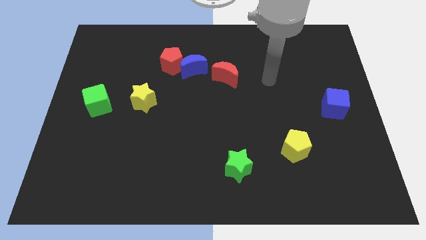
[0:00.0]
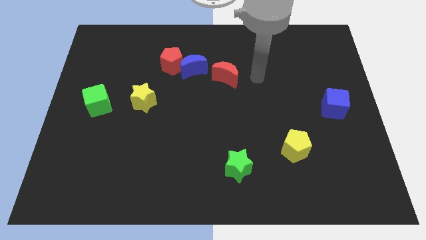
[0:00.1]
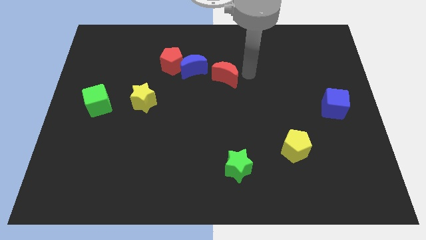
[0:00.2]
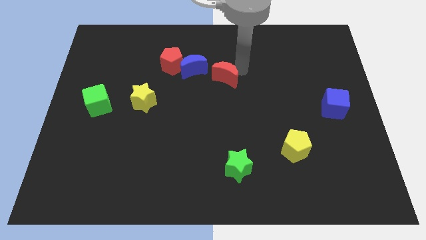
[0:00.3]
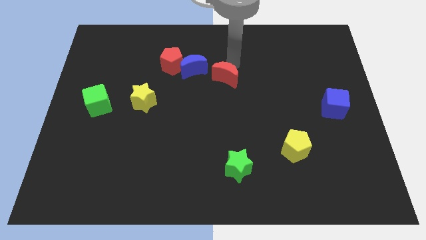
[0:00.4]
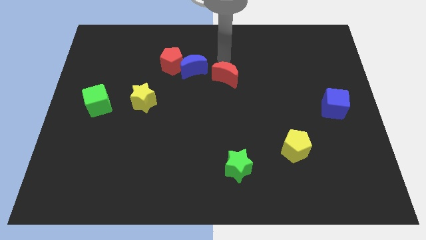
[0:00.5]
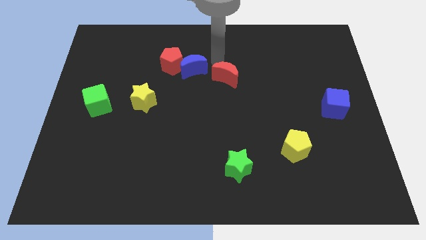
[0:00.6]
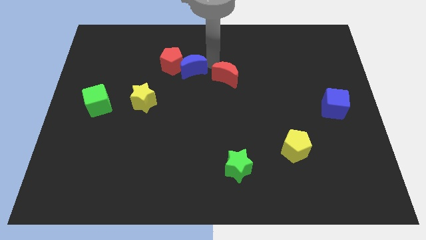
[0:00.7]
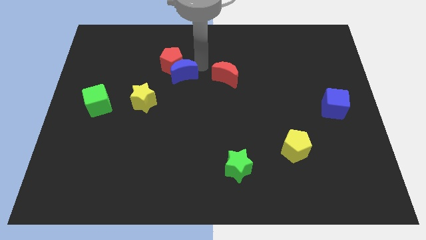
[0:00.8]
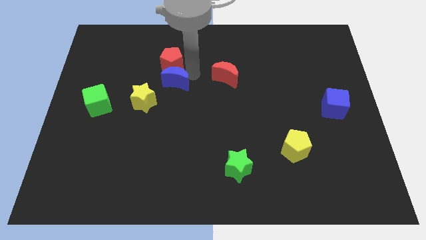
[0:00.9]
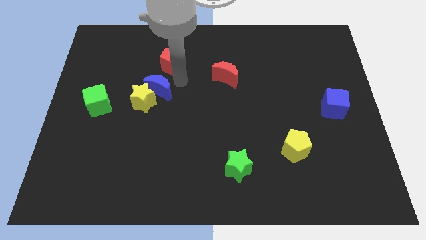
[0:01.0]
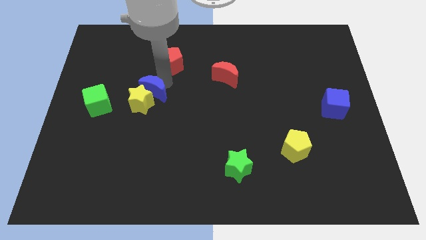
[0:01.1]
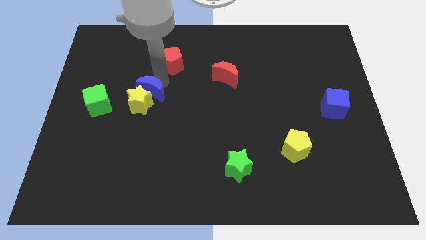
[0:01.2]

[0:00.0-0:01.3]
pull the red pentagon apart from the blue moon

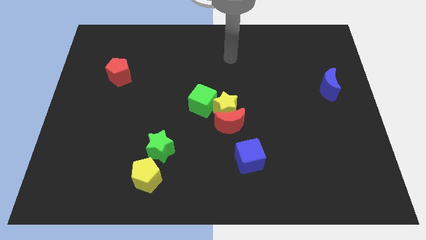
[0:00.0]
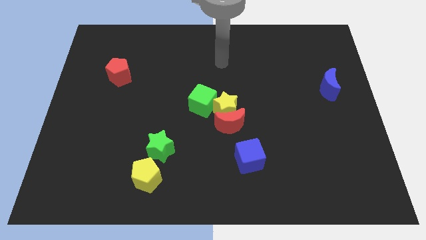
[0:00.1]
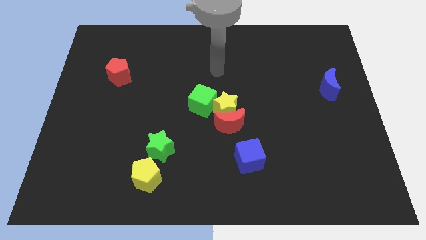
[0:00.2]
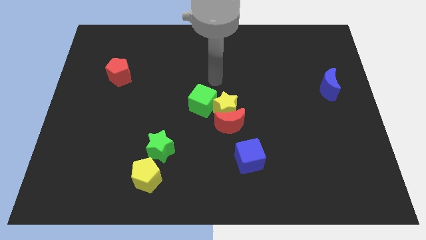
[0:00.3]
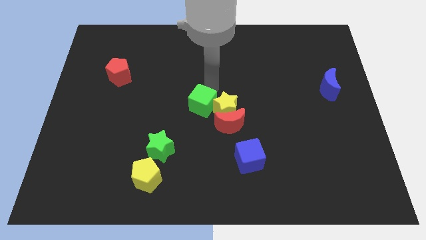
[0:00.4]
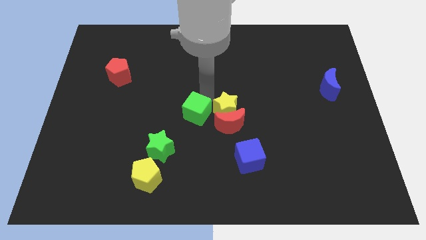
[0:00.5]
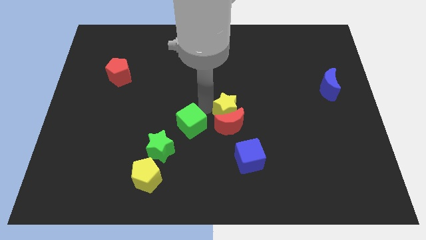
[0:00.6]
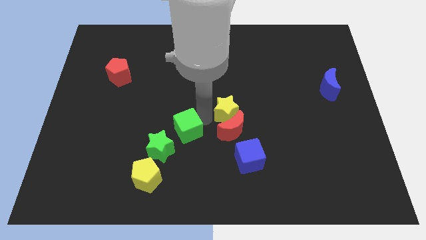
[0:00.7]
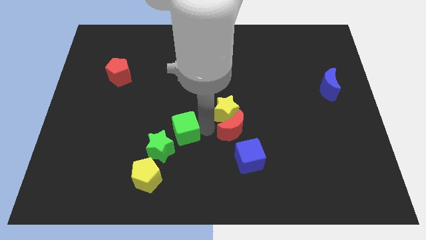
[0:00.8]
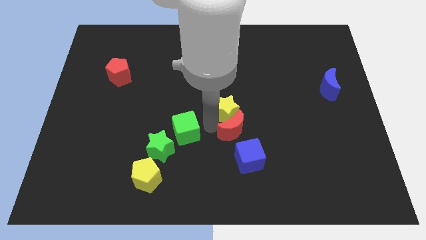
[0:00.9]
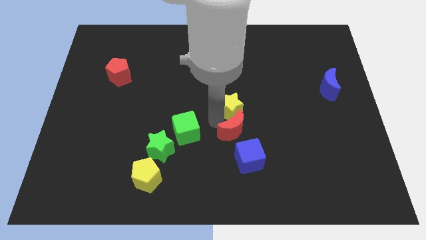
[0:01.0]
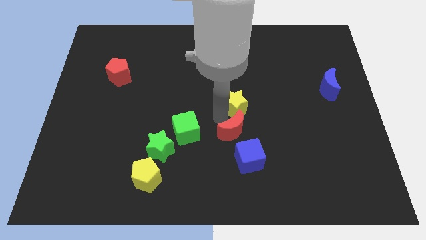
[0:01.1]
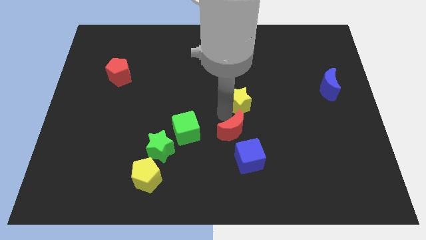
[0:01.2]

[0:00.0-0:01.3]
pull the yellow star apart from the red moon and green cube

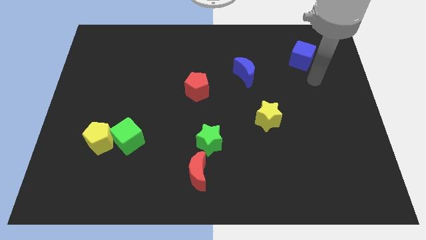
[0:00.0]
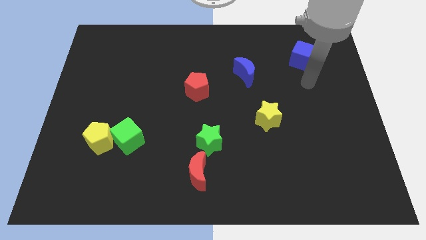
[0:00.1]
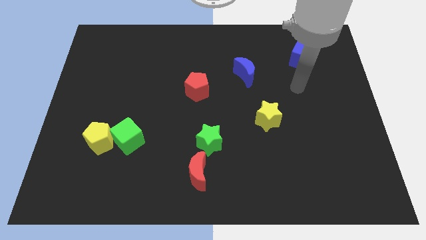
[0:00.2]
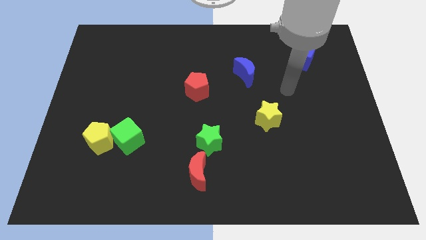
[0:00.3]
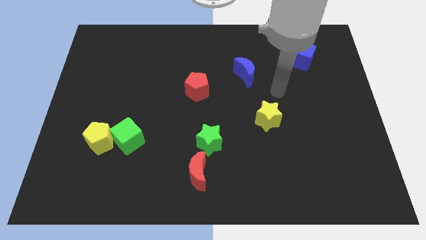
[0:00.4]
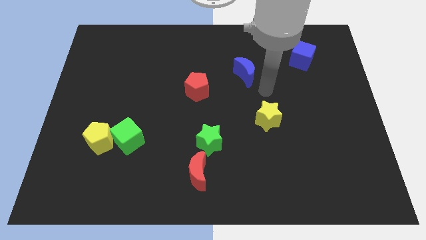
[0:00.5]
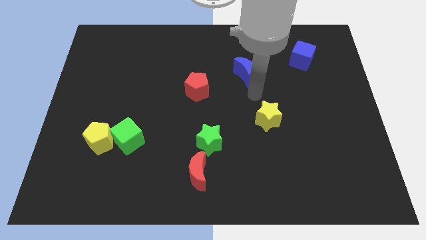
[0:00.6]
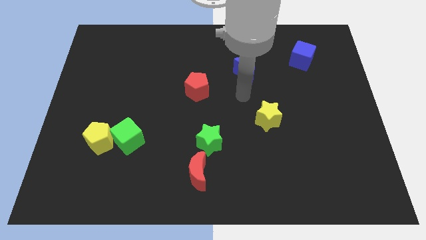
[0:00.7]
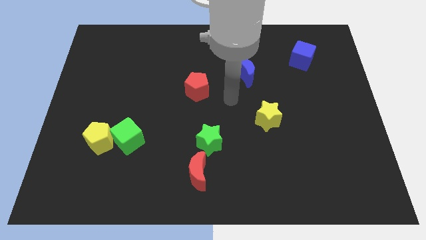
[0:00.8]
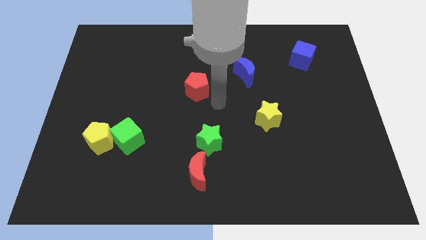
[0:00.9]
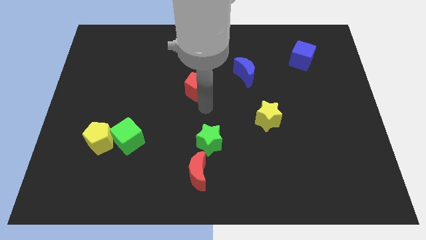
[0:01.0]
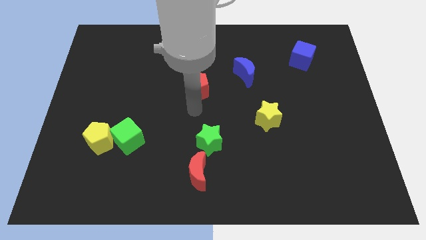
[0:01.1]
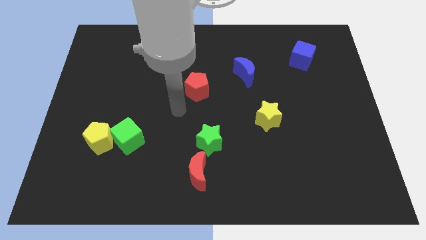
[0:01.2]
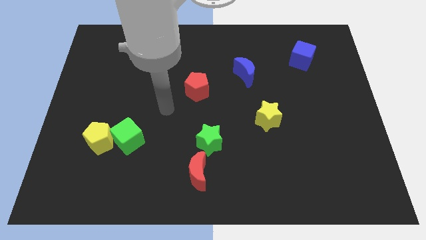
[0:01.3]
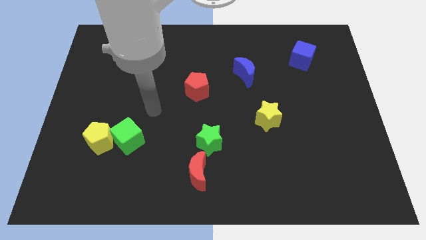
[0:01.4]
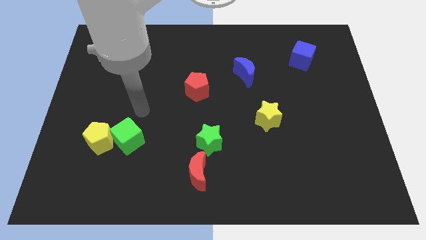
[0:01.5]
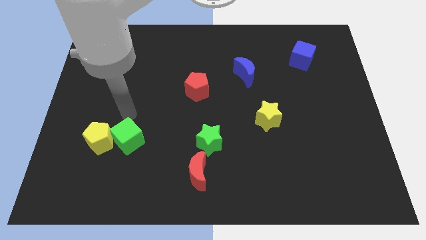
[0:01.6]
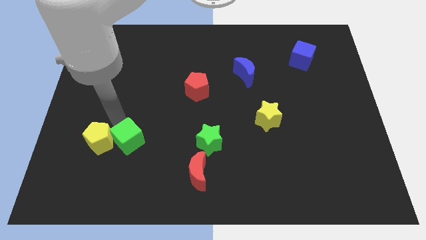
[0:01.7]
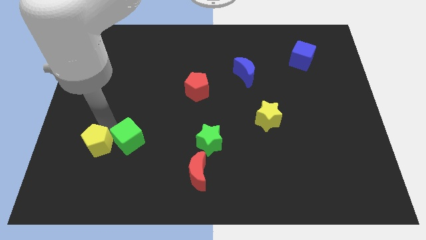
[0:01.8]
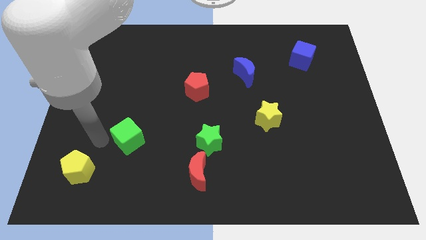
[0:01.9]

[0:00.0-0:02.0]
separate the green cube from the yellow pentagon

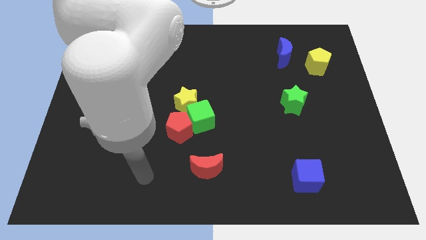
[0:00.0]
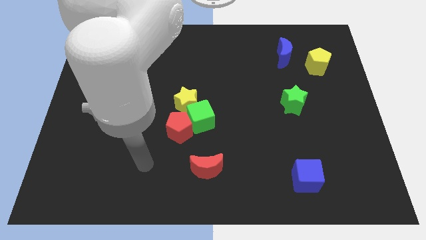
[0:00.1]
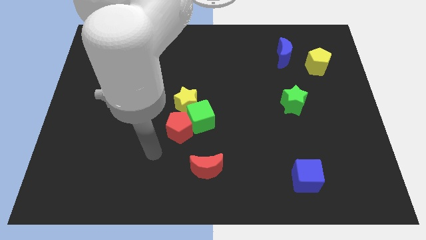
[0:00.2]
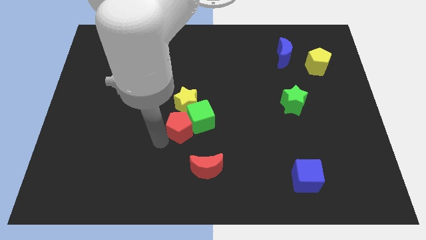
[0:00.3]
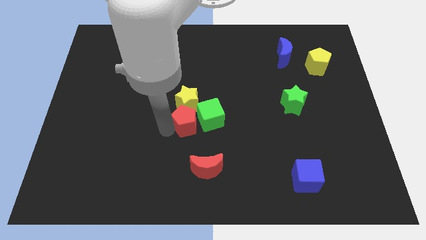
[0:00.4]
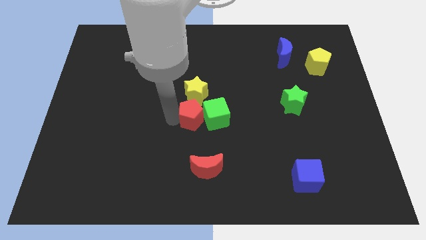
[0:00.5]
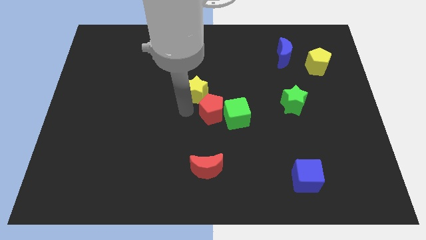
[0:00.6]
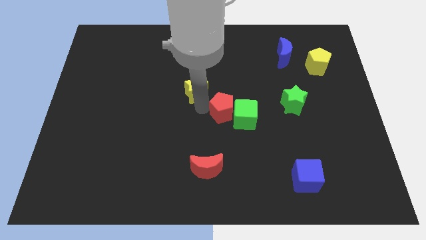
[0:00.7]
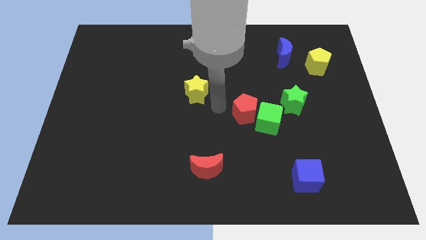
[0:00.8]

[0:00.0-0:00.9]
separate the green cube from the yellow star and red pentagon

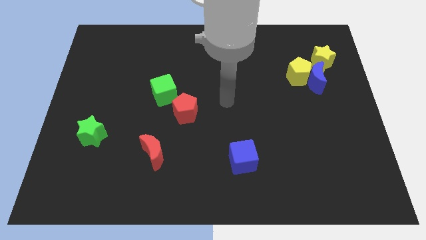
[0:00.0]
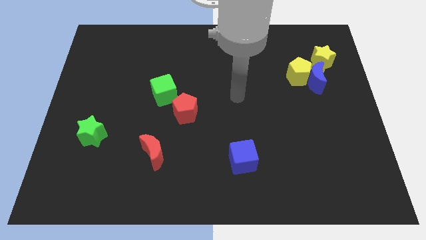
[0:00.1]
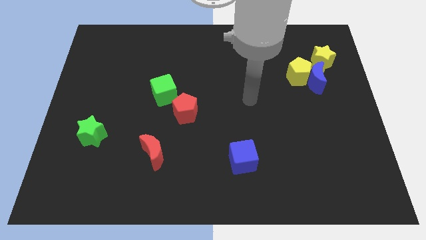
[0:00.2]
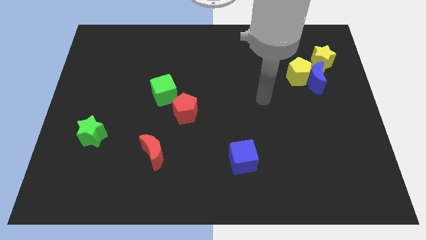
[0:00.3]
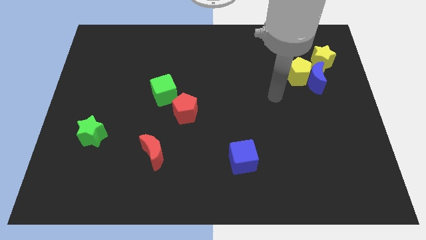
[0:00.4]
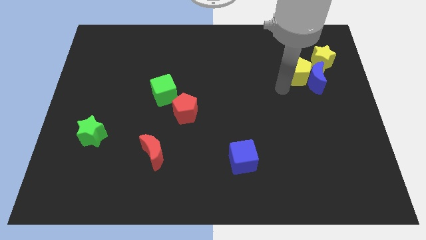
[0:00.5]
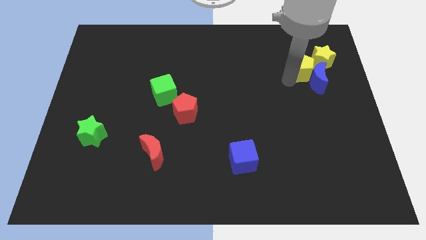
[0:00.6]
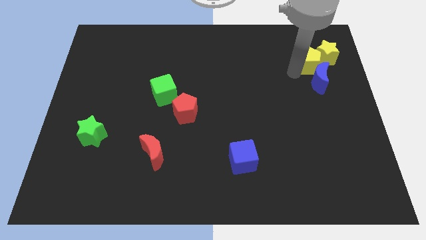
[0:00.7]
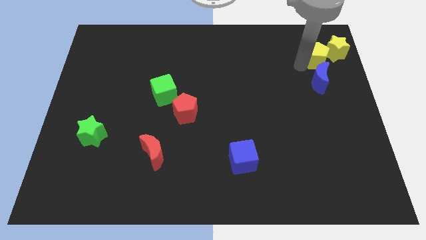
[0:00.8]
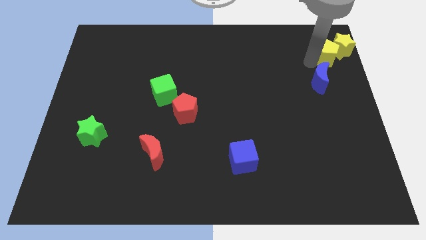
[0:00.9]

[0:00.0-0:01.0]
pull the blue moon apart from the yellow pentagon and yellow star

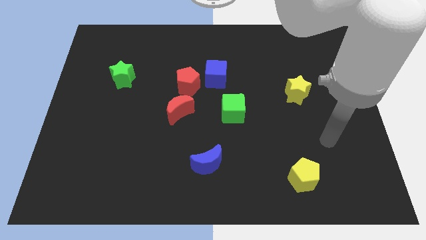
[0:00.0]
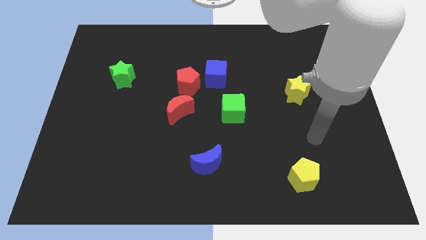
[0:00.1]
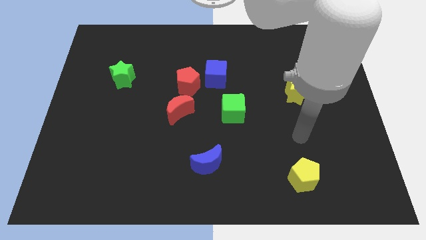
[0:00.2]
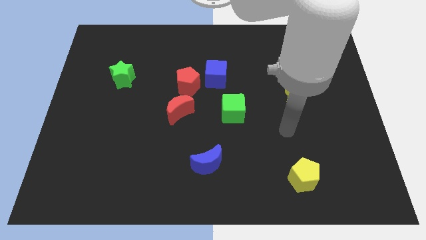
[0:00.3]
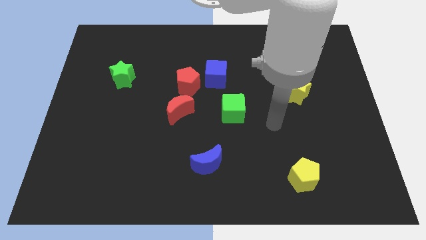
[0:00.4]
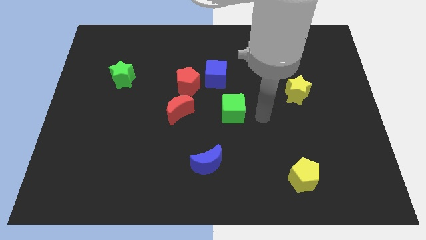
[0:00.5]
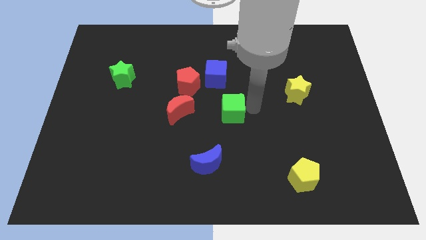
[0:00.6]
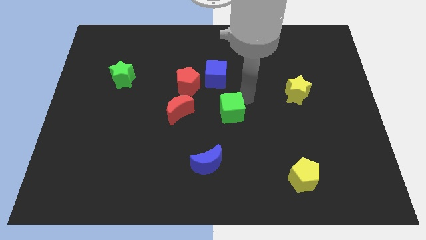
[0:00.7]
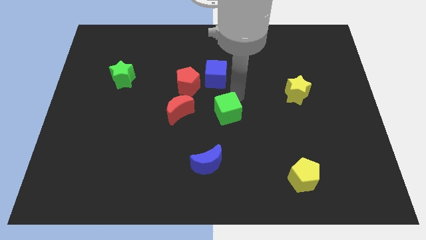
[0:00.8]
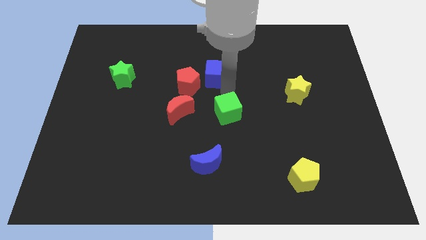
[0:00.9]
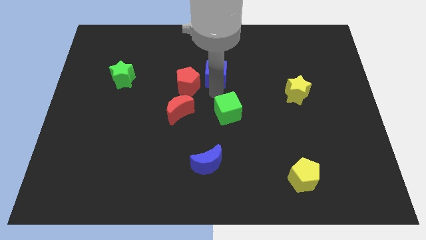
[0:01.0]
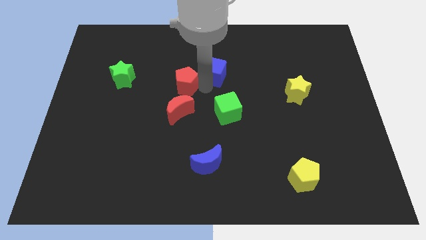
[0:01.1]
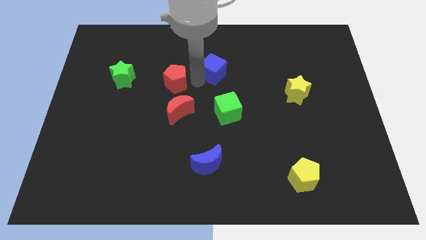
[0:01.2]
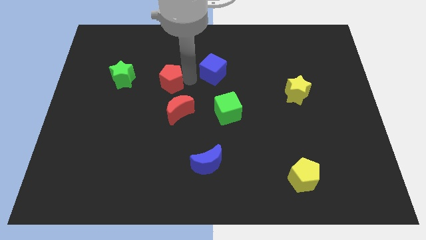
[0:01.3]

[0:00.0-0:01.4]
move the blue cube away from the red pentagon

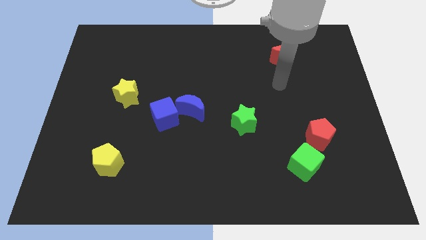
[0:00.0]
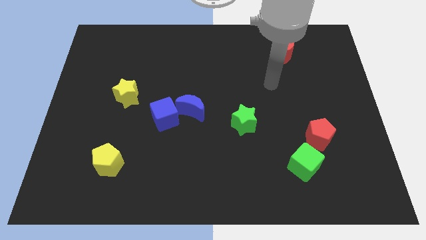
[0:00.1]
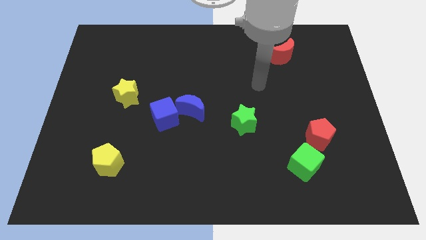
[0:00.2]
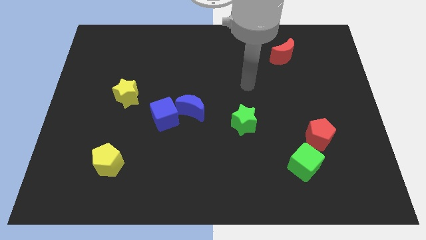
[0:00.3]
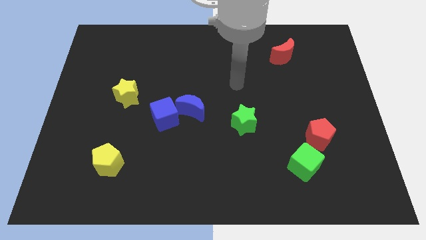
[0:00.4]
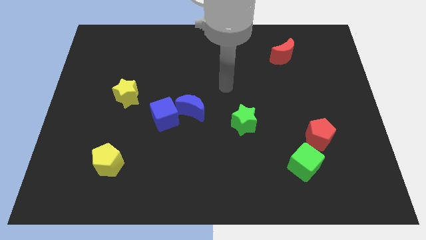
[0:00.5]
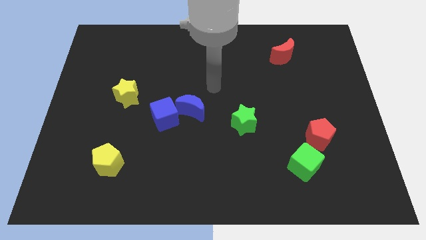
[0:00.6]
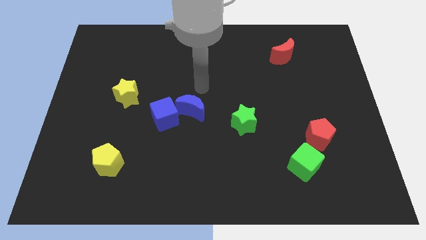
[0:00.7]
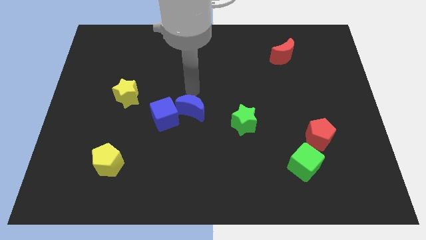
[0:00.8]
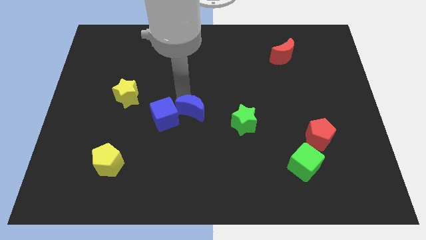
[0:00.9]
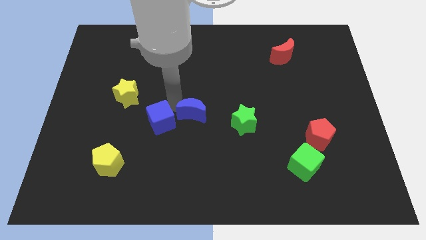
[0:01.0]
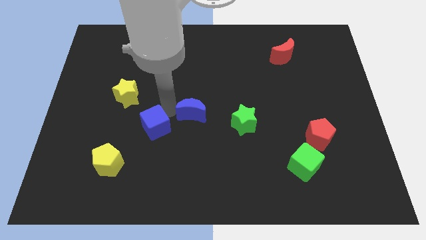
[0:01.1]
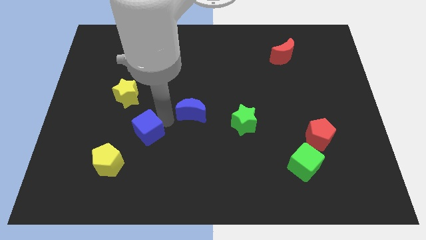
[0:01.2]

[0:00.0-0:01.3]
move the blue moon away from the blue cube
